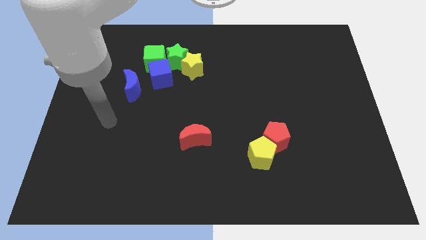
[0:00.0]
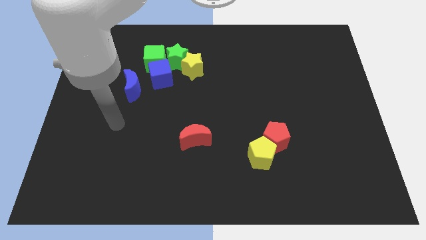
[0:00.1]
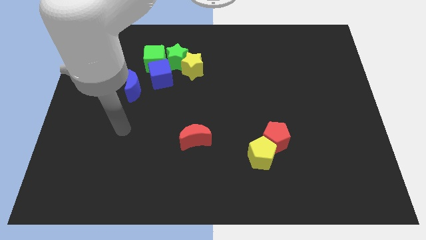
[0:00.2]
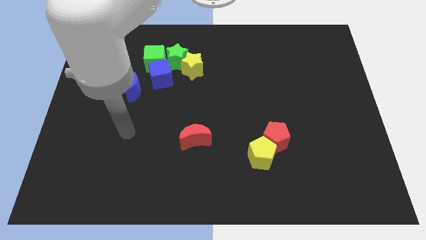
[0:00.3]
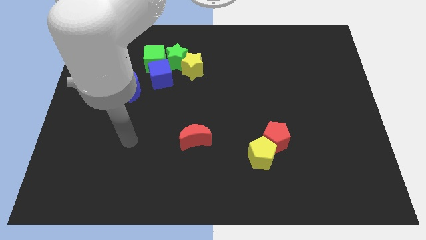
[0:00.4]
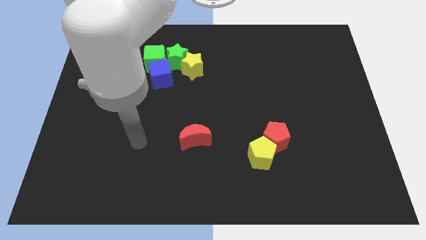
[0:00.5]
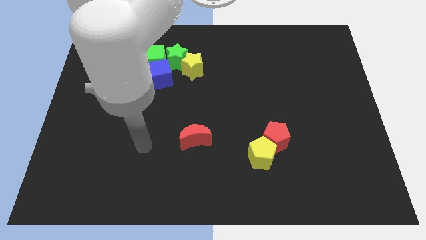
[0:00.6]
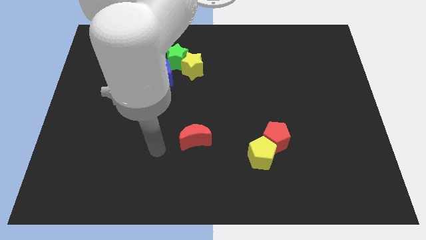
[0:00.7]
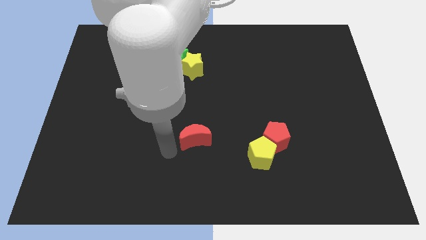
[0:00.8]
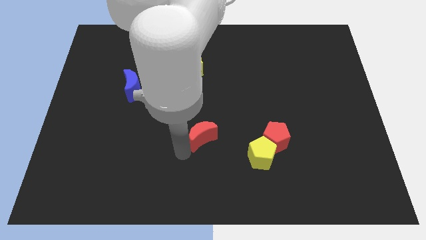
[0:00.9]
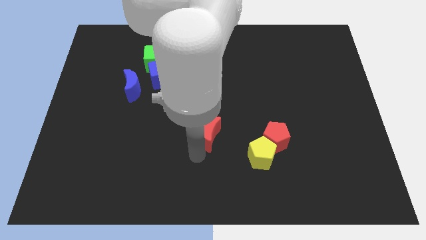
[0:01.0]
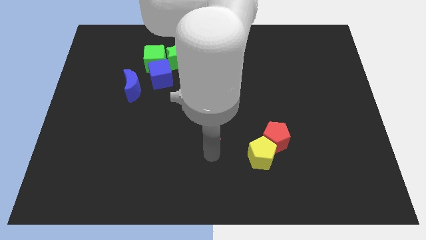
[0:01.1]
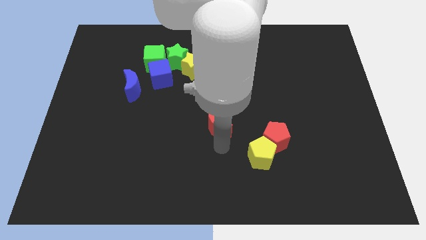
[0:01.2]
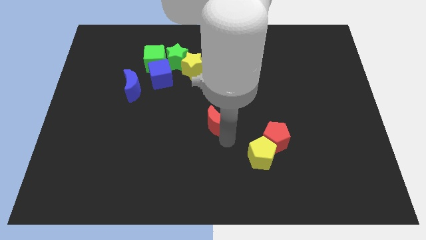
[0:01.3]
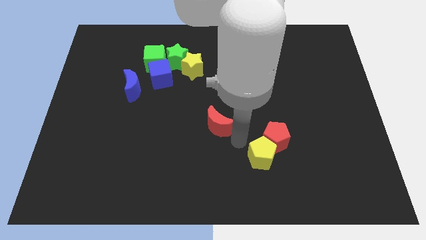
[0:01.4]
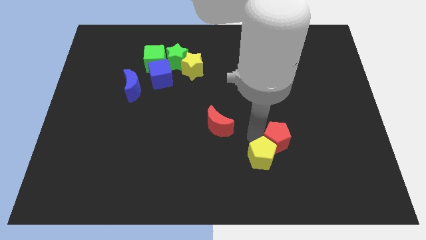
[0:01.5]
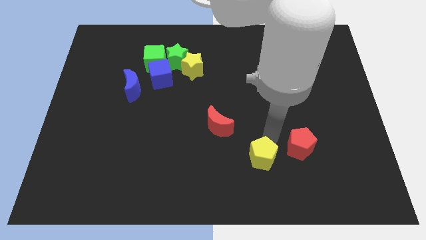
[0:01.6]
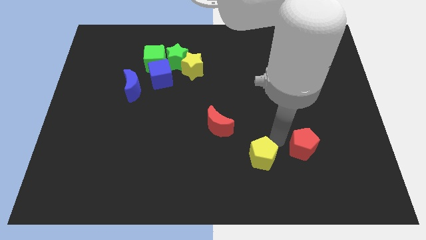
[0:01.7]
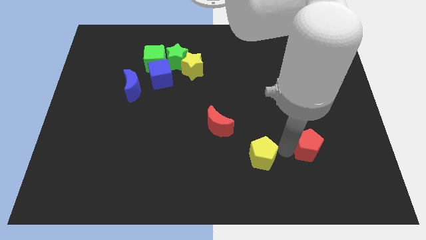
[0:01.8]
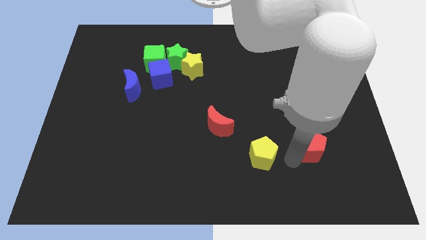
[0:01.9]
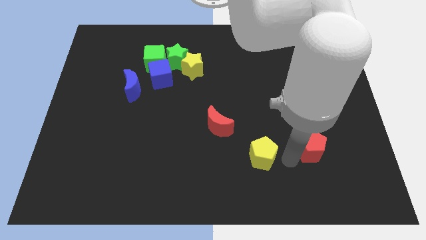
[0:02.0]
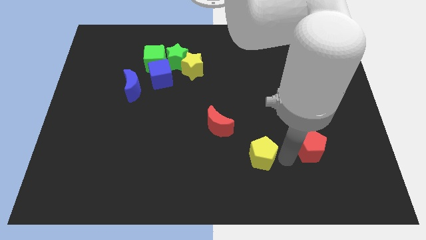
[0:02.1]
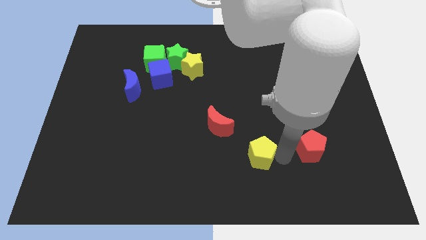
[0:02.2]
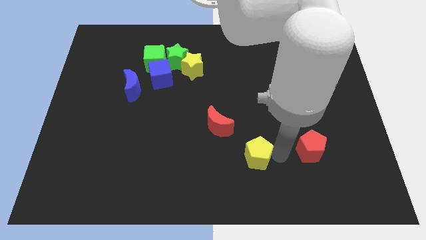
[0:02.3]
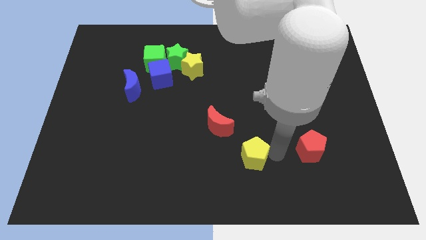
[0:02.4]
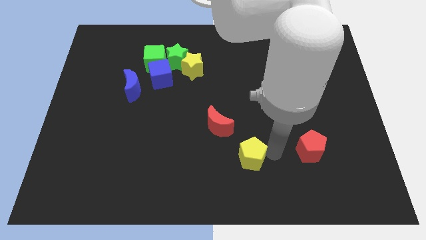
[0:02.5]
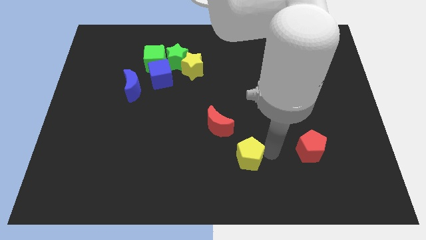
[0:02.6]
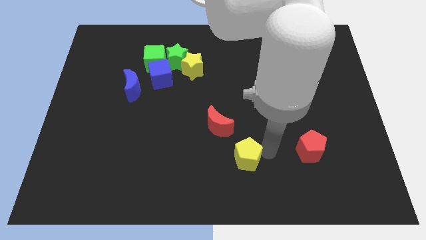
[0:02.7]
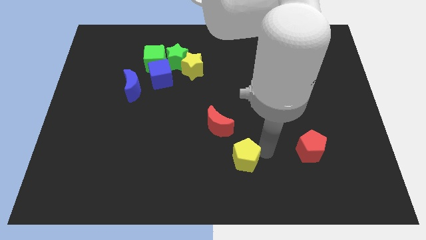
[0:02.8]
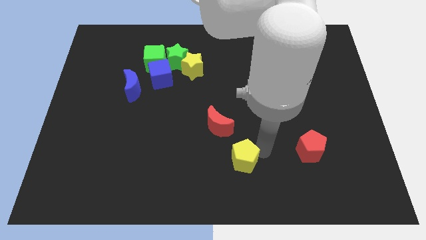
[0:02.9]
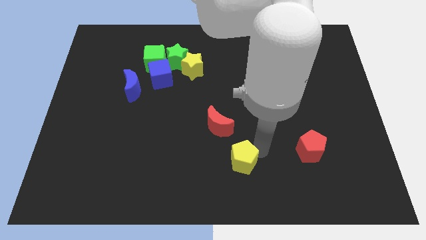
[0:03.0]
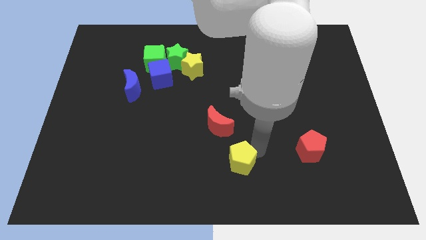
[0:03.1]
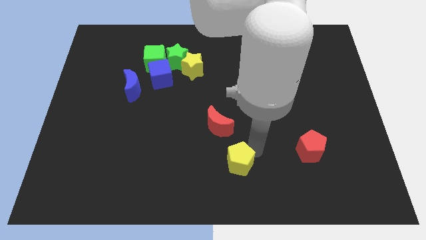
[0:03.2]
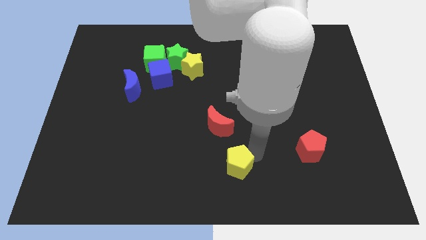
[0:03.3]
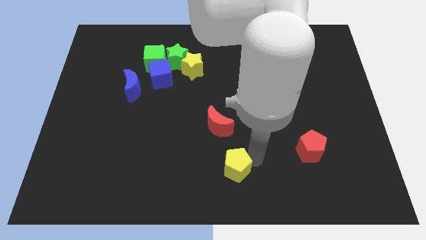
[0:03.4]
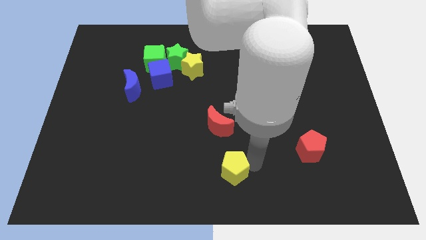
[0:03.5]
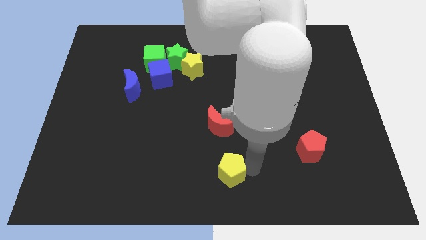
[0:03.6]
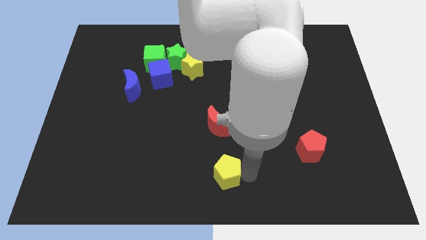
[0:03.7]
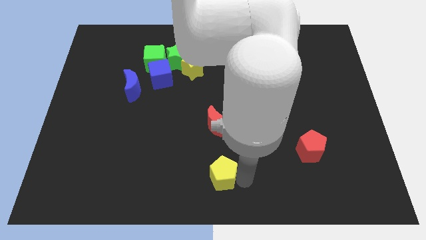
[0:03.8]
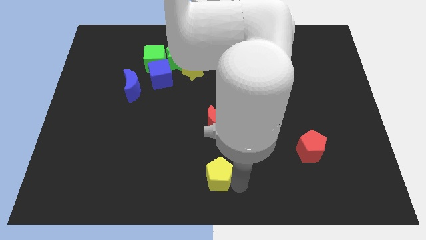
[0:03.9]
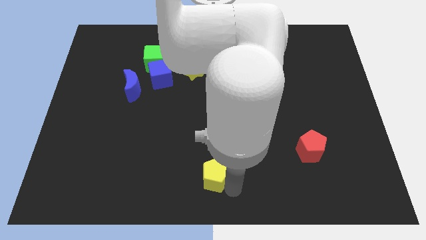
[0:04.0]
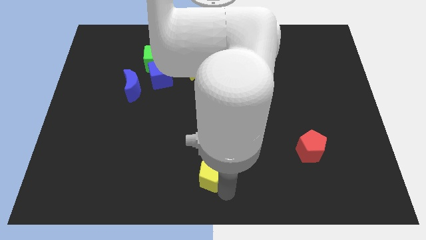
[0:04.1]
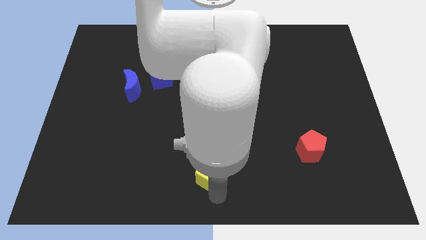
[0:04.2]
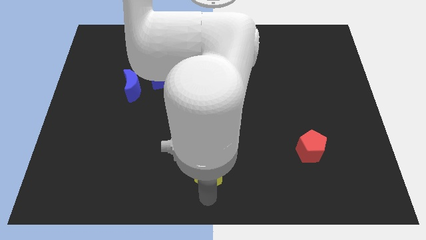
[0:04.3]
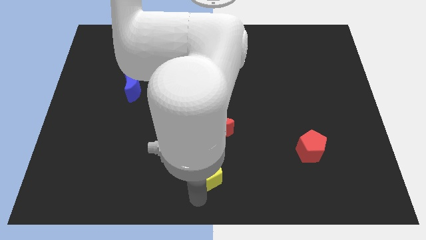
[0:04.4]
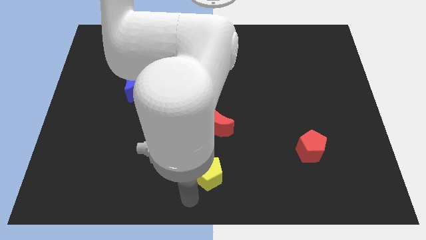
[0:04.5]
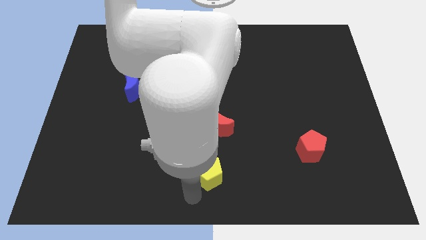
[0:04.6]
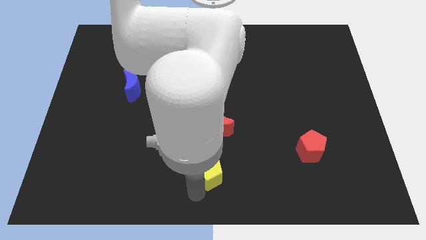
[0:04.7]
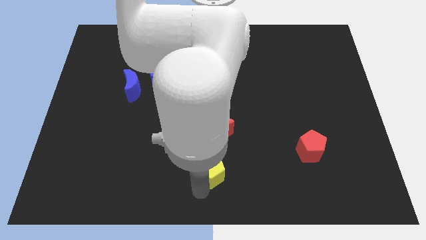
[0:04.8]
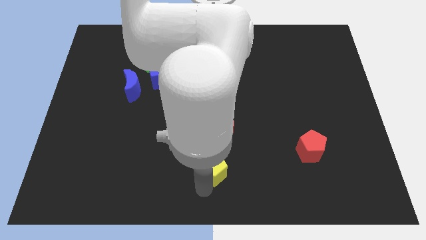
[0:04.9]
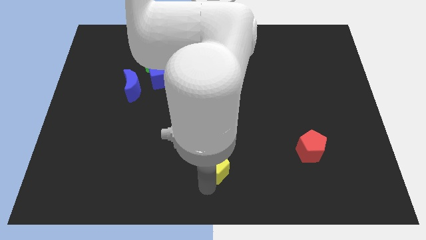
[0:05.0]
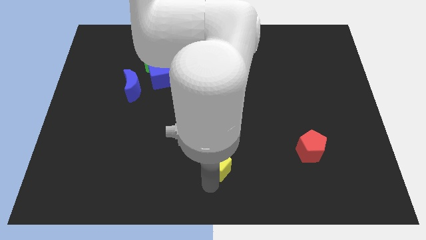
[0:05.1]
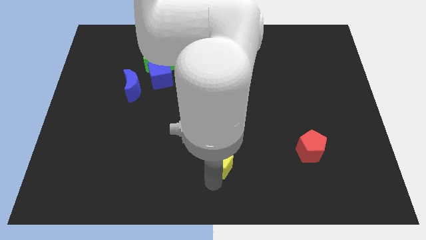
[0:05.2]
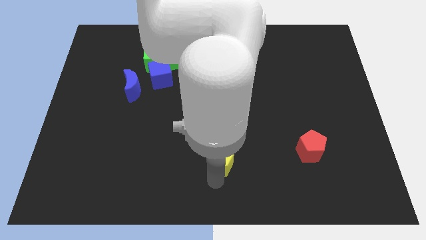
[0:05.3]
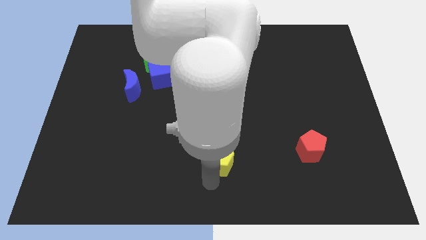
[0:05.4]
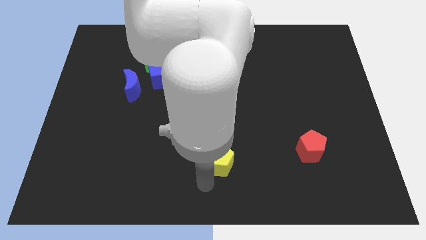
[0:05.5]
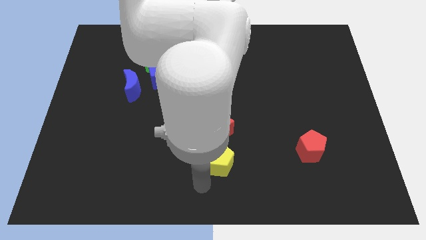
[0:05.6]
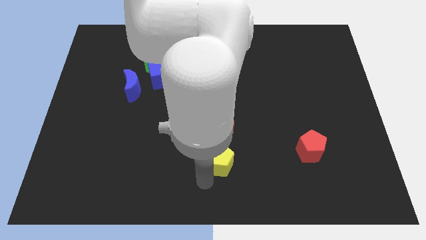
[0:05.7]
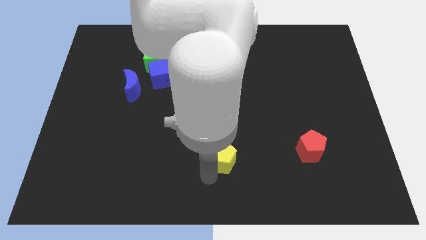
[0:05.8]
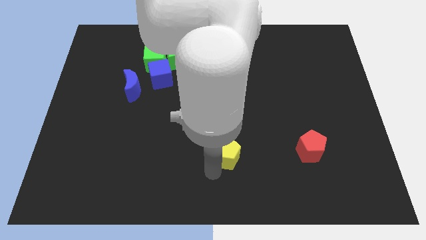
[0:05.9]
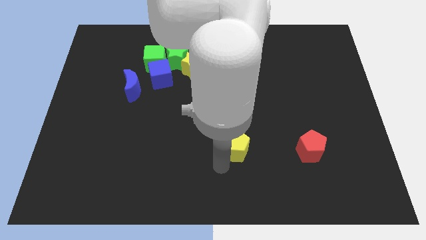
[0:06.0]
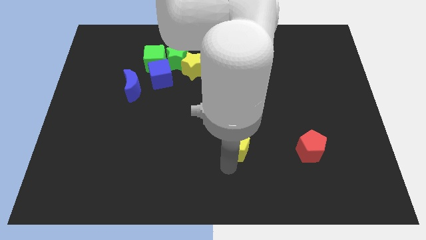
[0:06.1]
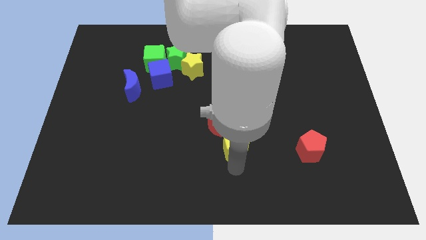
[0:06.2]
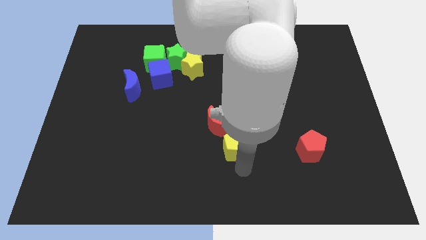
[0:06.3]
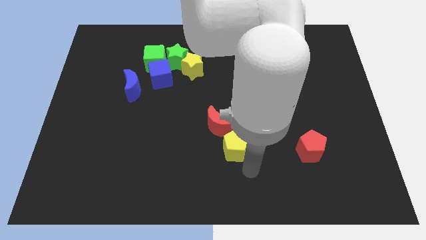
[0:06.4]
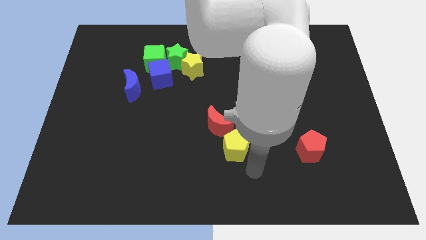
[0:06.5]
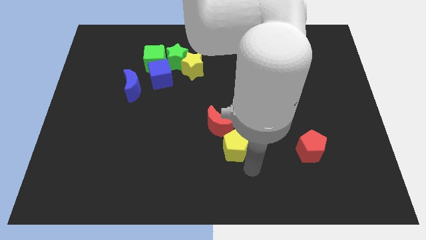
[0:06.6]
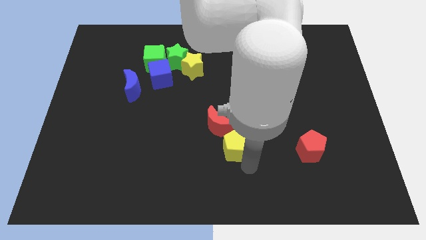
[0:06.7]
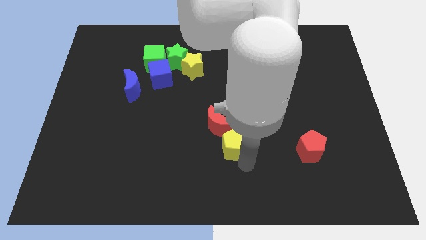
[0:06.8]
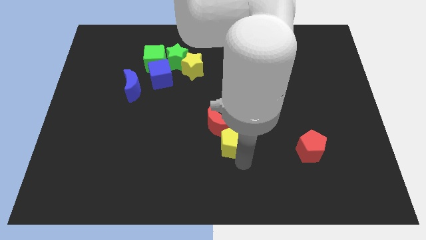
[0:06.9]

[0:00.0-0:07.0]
put the yellow pentagon towards the red moon

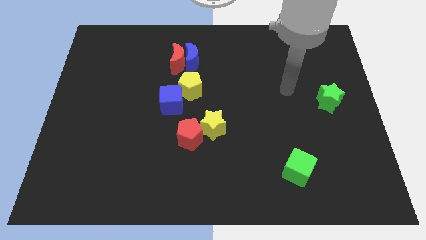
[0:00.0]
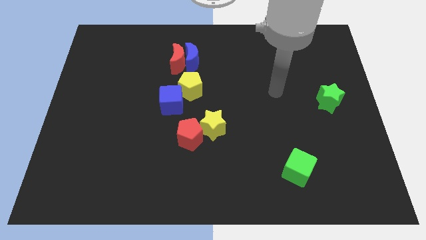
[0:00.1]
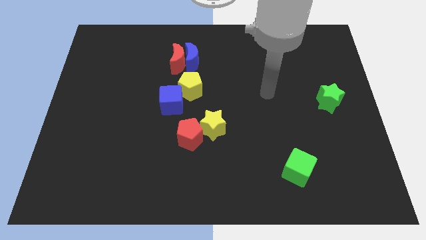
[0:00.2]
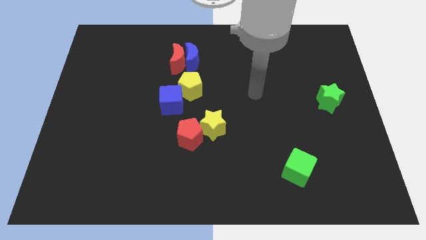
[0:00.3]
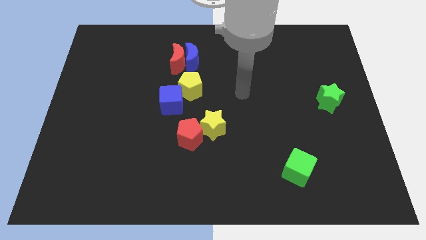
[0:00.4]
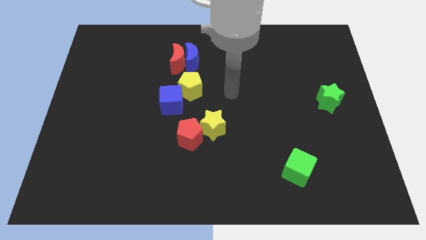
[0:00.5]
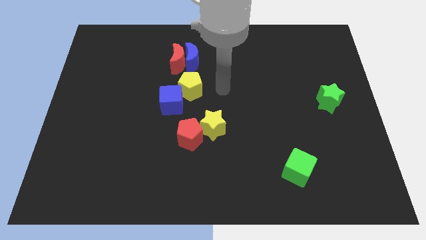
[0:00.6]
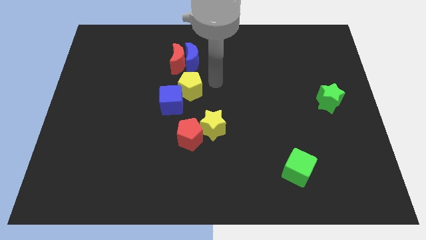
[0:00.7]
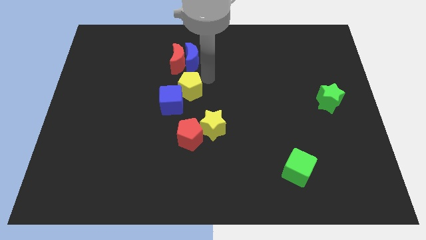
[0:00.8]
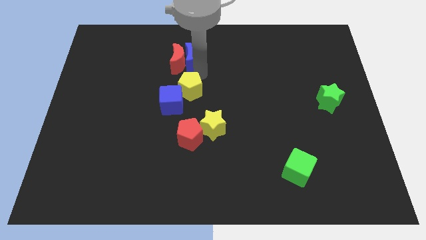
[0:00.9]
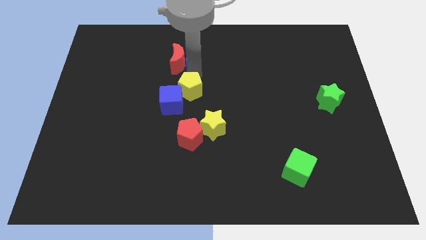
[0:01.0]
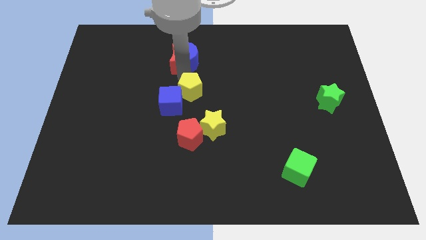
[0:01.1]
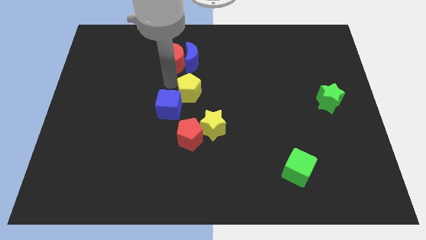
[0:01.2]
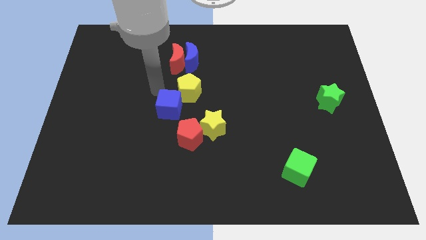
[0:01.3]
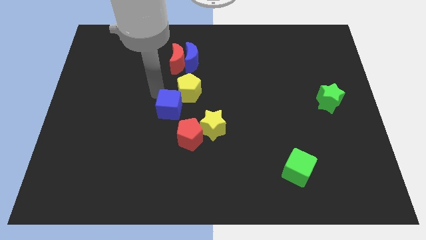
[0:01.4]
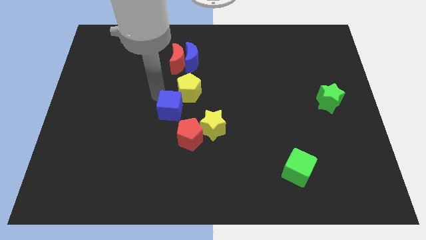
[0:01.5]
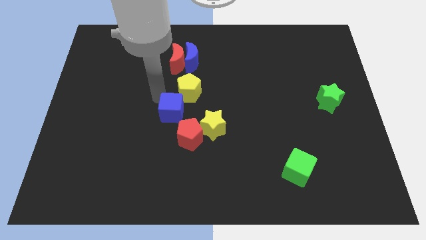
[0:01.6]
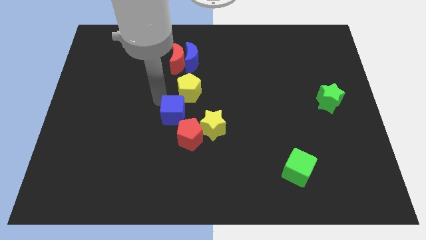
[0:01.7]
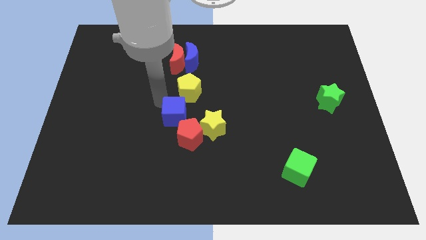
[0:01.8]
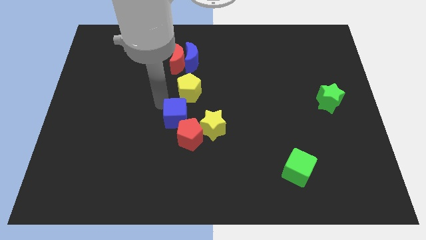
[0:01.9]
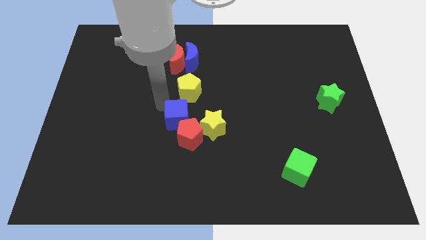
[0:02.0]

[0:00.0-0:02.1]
slide the blue cube to the red pentagon
